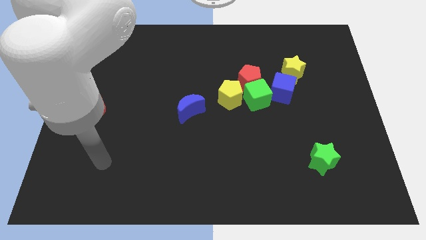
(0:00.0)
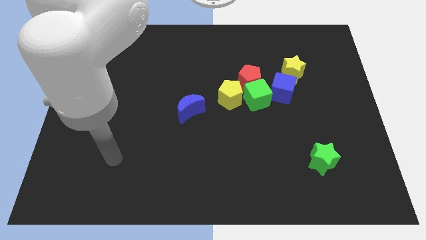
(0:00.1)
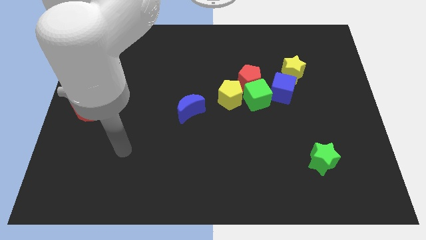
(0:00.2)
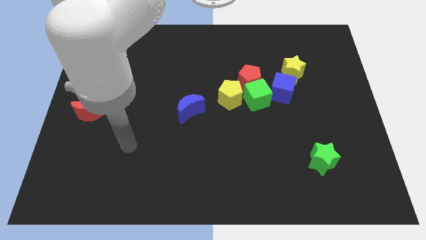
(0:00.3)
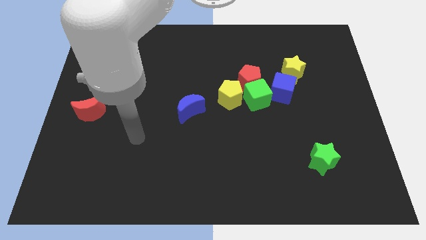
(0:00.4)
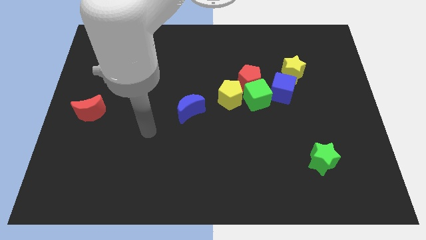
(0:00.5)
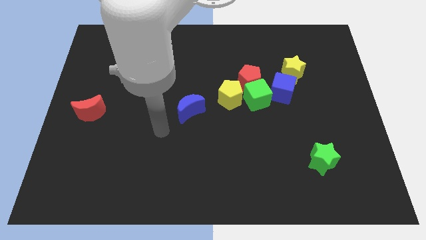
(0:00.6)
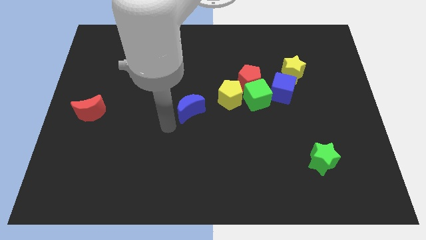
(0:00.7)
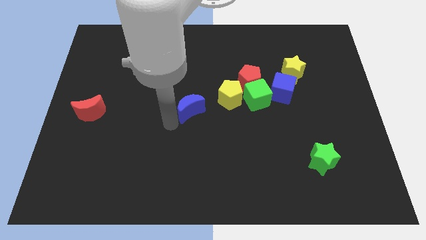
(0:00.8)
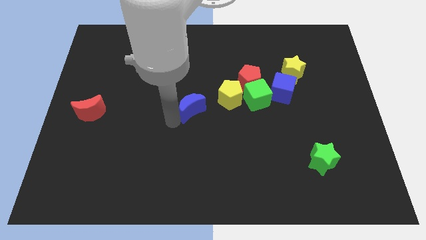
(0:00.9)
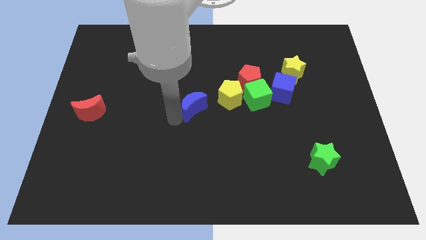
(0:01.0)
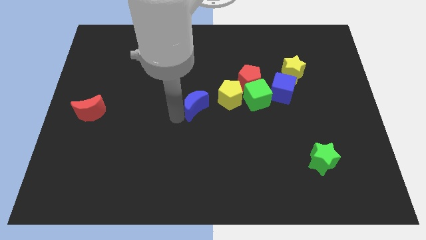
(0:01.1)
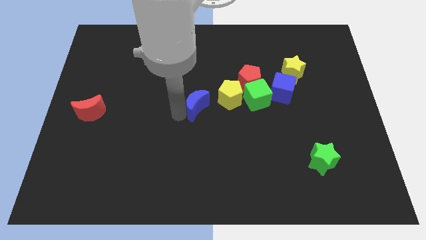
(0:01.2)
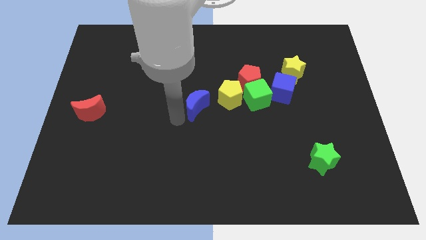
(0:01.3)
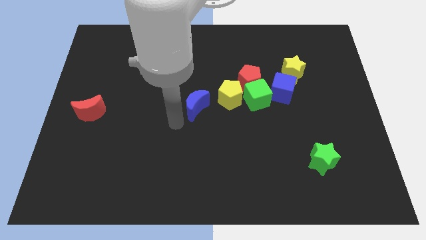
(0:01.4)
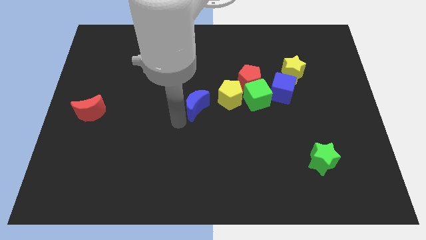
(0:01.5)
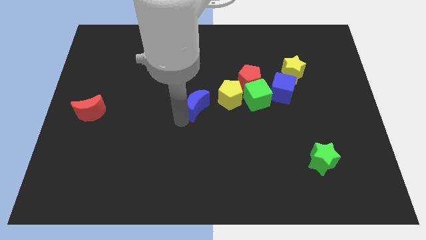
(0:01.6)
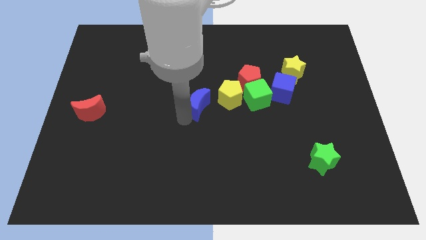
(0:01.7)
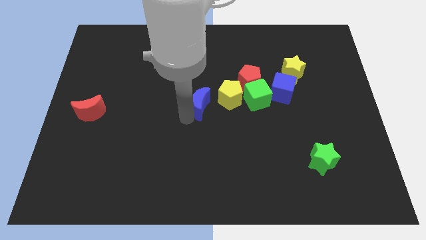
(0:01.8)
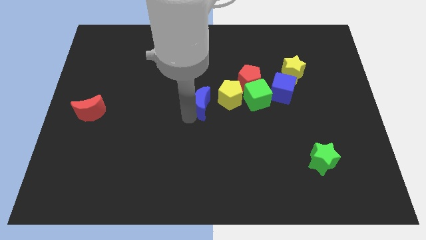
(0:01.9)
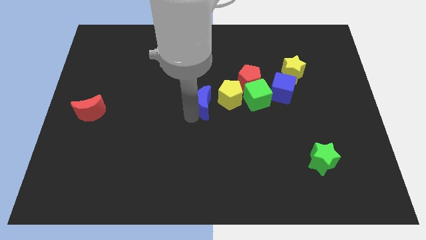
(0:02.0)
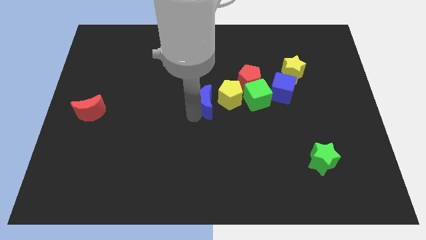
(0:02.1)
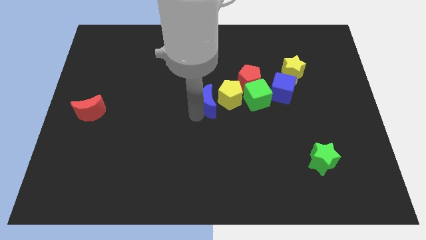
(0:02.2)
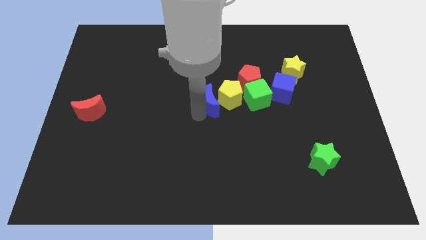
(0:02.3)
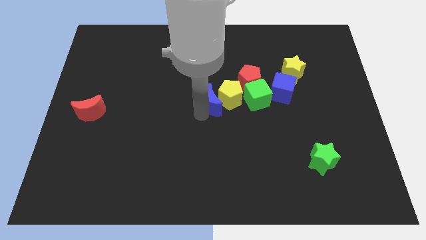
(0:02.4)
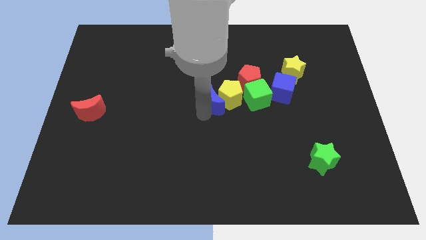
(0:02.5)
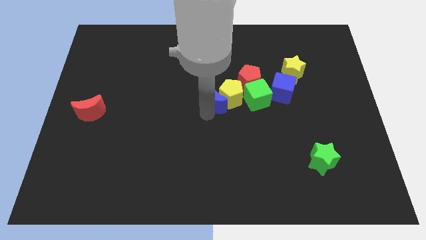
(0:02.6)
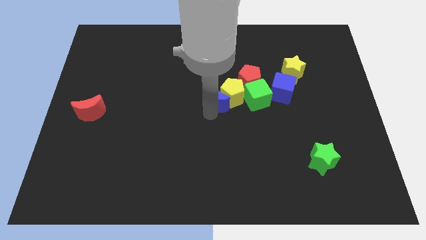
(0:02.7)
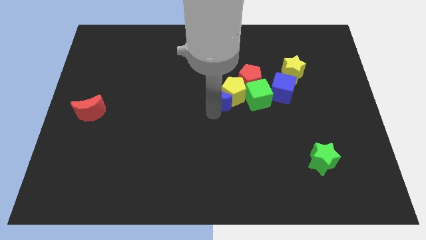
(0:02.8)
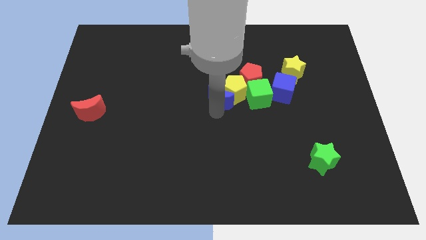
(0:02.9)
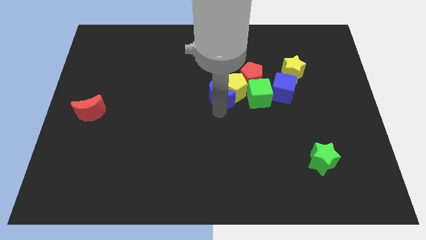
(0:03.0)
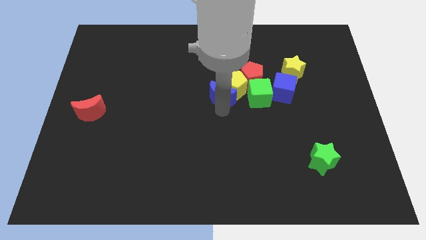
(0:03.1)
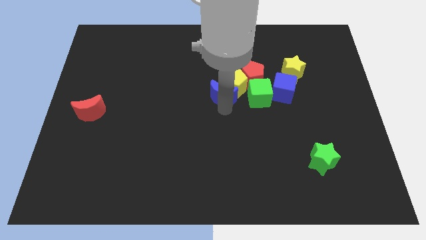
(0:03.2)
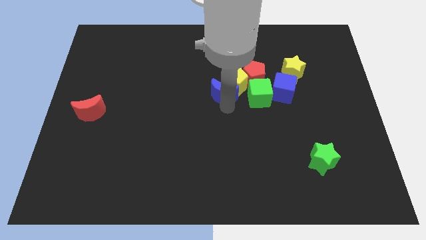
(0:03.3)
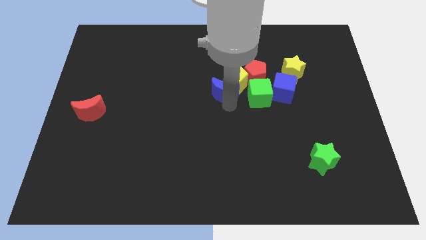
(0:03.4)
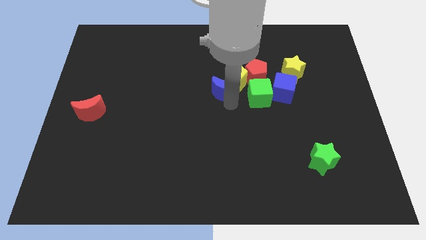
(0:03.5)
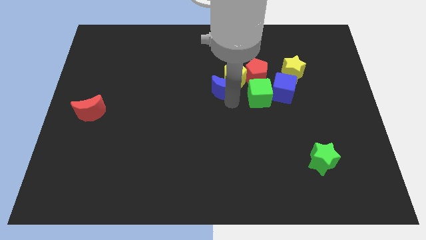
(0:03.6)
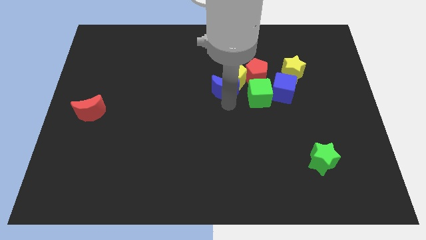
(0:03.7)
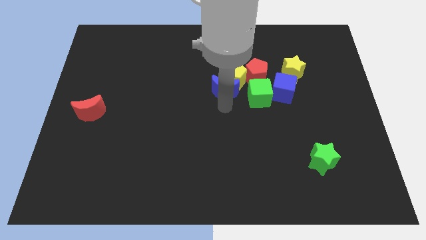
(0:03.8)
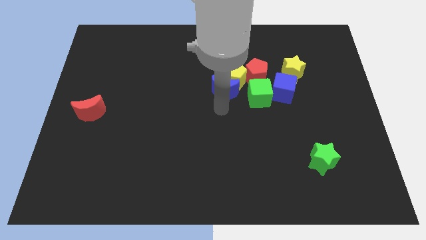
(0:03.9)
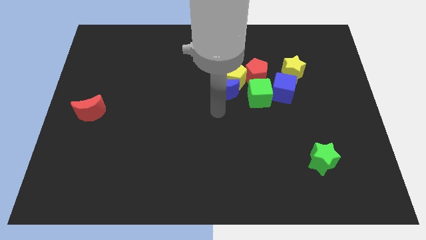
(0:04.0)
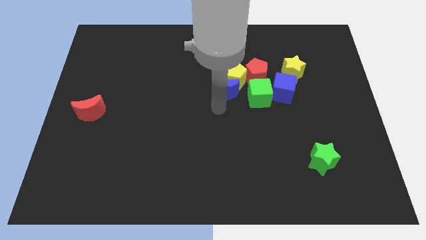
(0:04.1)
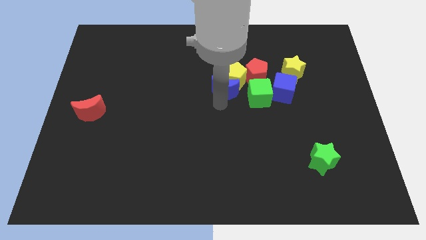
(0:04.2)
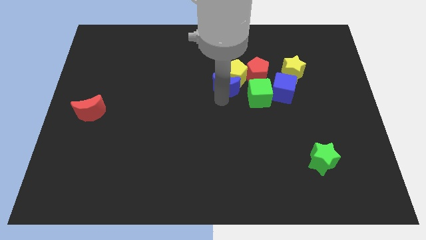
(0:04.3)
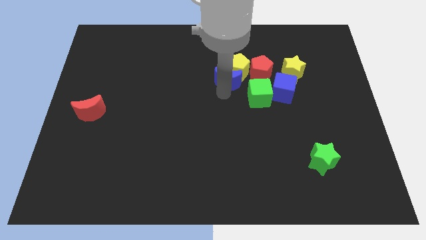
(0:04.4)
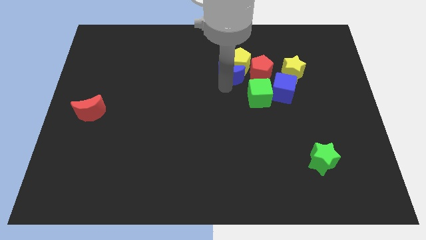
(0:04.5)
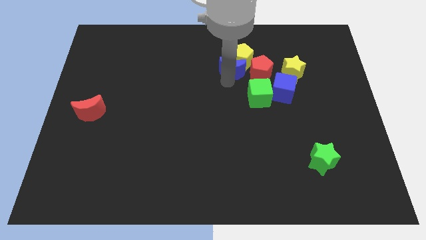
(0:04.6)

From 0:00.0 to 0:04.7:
move the blue moon diagonally up and to the left of the red pentagon

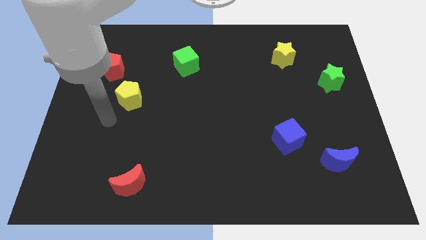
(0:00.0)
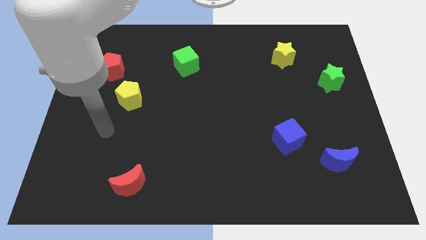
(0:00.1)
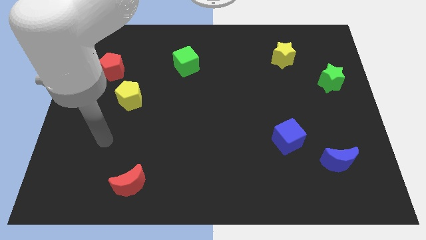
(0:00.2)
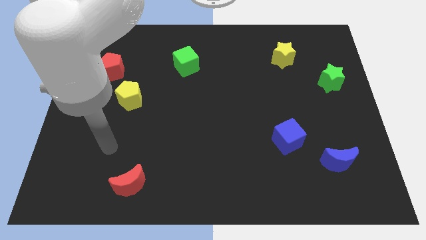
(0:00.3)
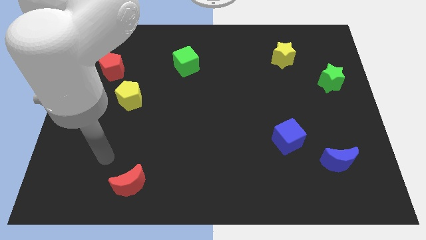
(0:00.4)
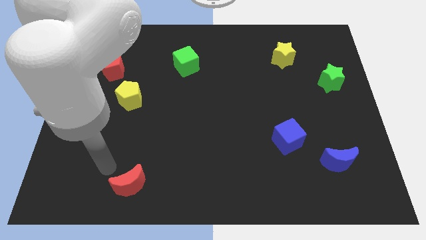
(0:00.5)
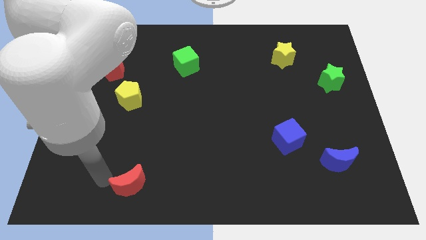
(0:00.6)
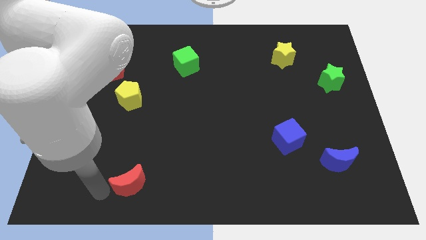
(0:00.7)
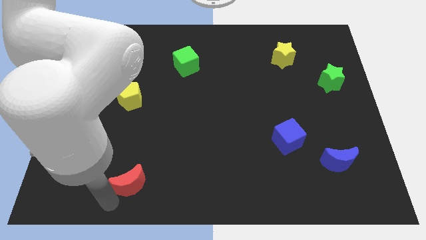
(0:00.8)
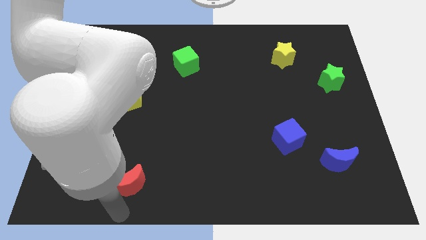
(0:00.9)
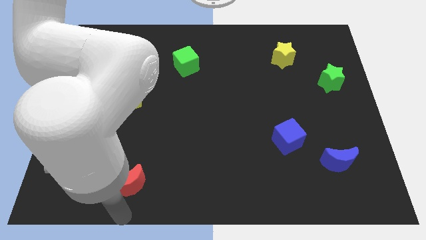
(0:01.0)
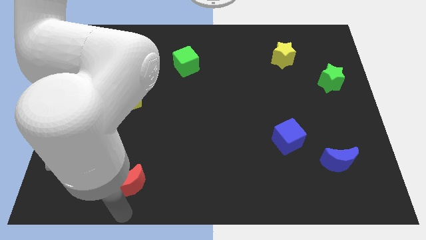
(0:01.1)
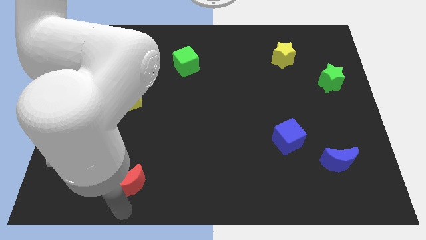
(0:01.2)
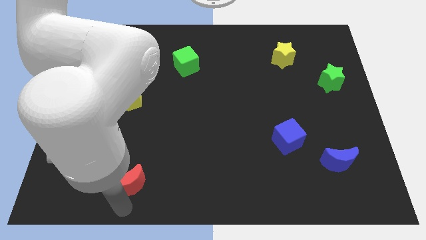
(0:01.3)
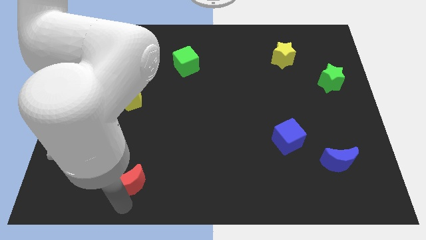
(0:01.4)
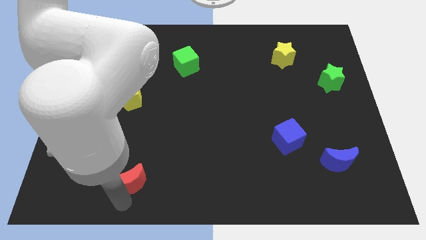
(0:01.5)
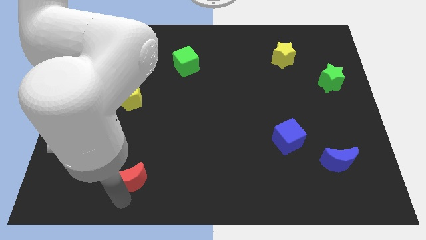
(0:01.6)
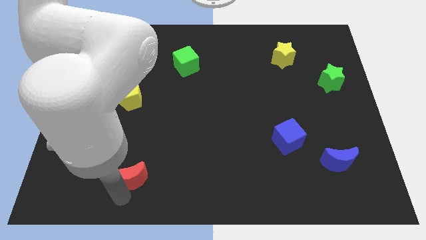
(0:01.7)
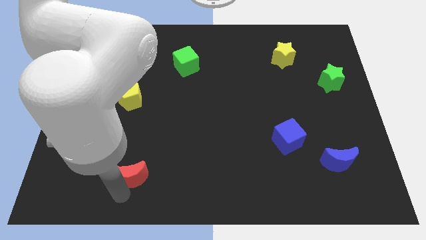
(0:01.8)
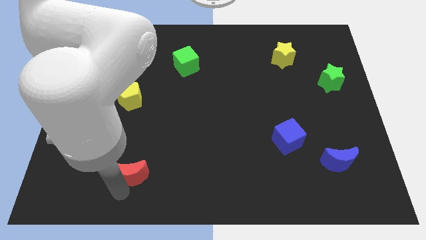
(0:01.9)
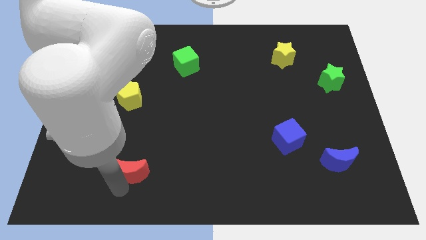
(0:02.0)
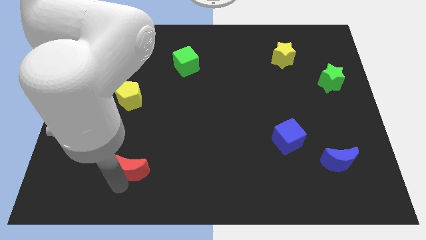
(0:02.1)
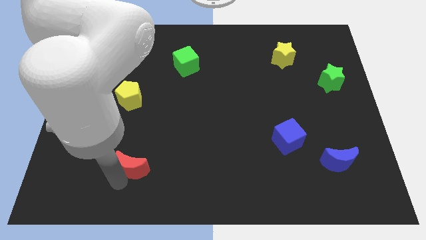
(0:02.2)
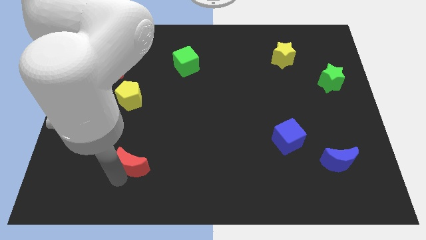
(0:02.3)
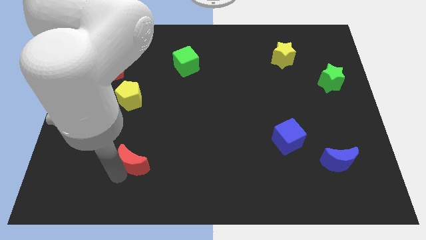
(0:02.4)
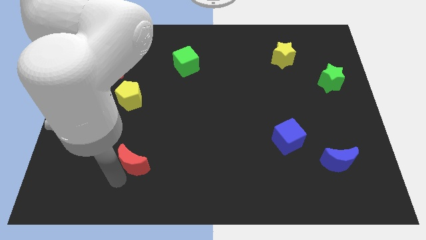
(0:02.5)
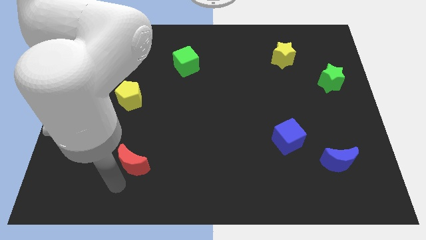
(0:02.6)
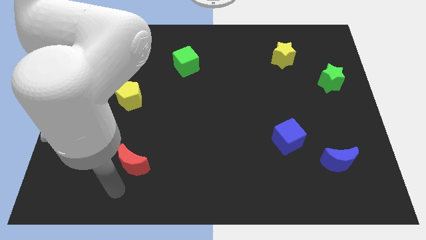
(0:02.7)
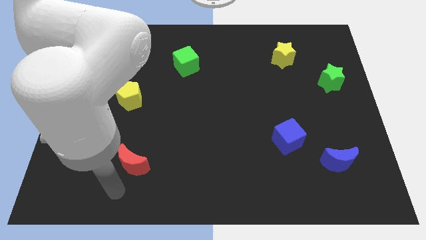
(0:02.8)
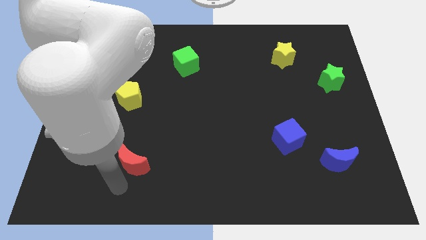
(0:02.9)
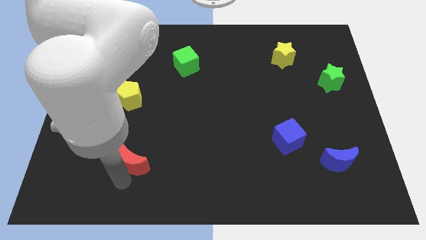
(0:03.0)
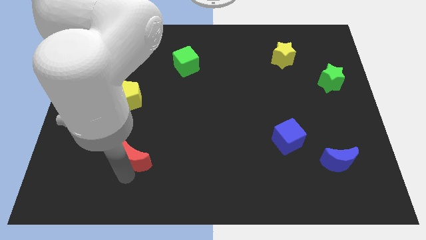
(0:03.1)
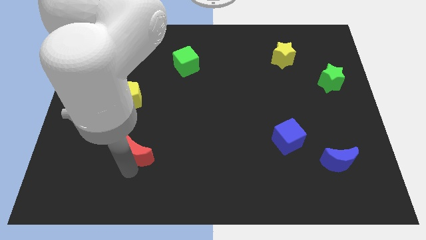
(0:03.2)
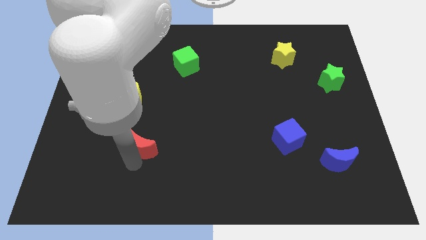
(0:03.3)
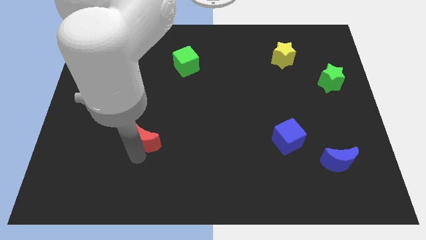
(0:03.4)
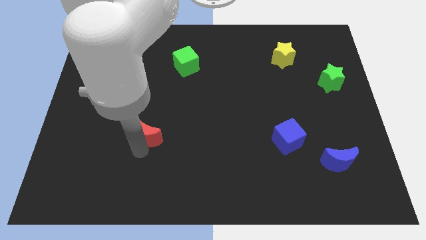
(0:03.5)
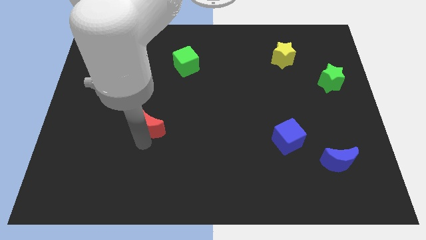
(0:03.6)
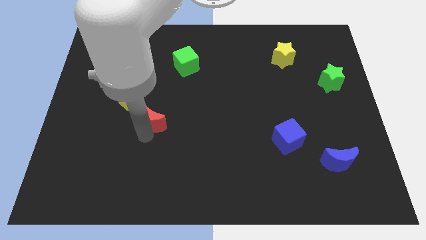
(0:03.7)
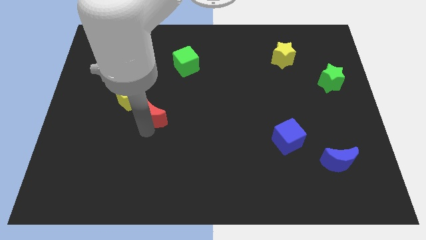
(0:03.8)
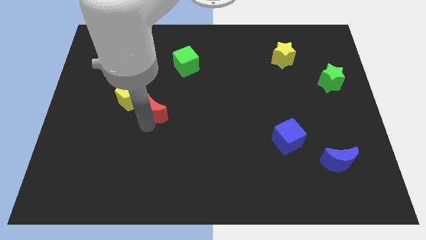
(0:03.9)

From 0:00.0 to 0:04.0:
put the red moon just right of the yellow pentagon
